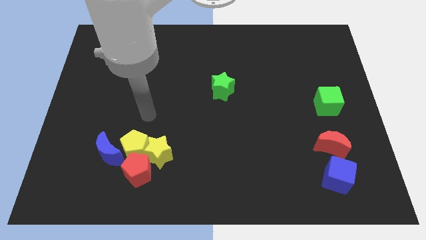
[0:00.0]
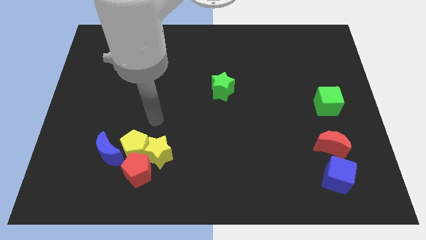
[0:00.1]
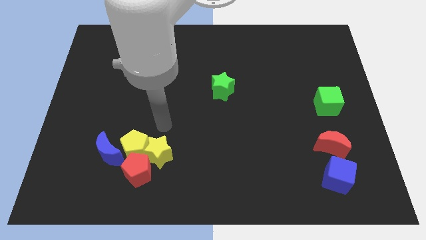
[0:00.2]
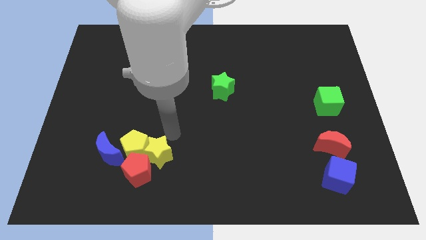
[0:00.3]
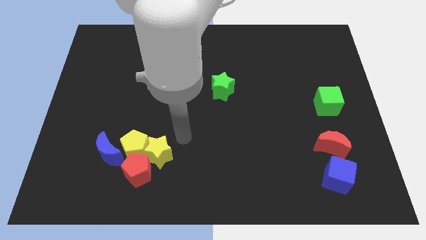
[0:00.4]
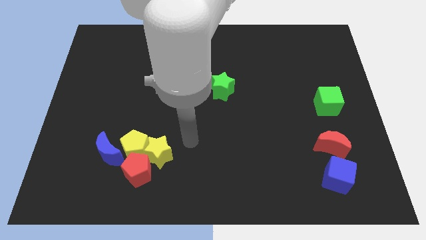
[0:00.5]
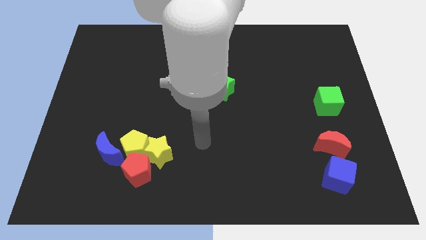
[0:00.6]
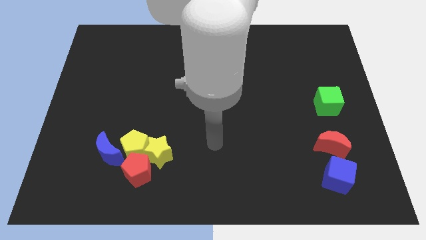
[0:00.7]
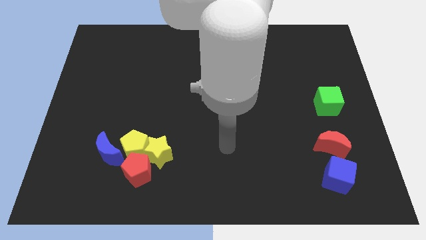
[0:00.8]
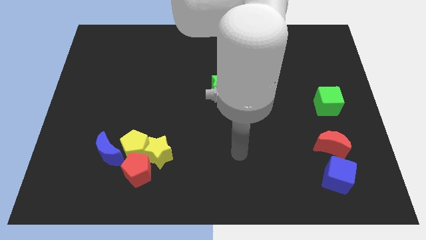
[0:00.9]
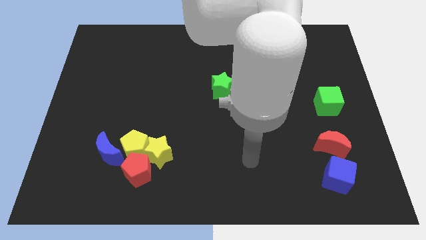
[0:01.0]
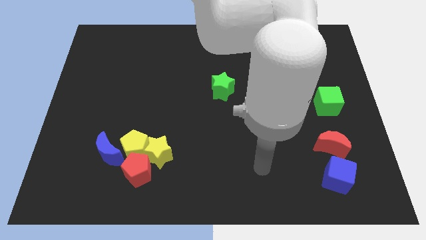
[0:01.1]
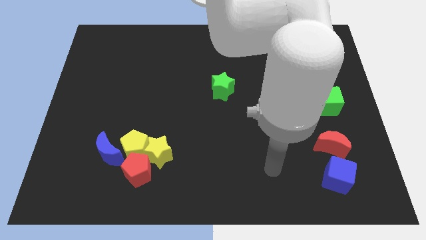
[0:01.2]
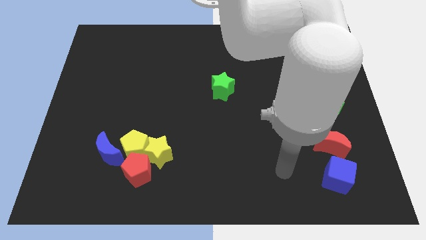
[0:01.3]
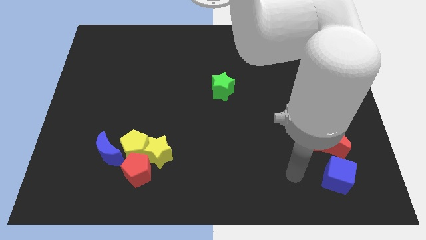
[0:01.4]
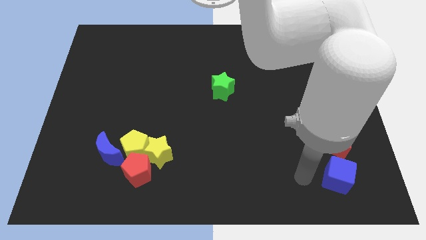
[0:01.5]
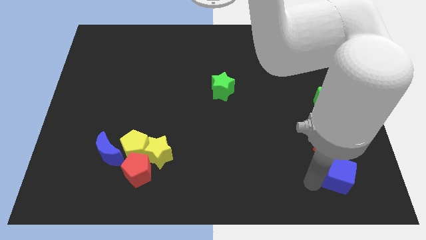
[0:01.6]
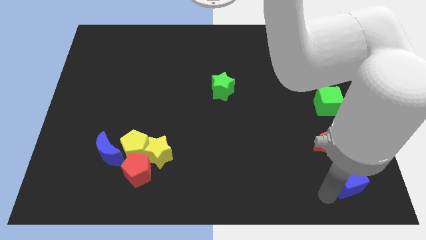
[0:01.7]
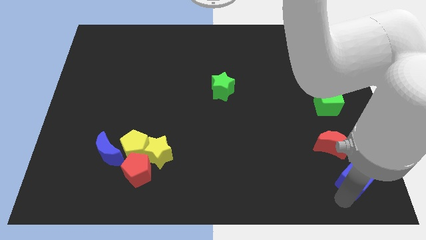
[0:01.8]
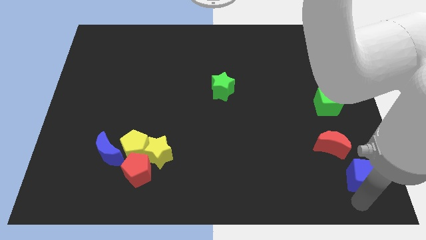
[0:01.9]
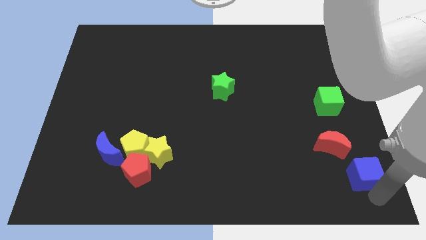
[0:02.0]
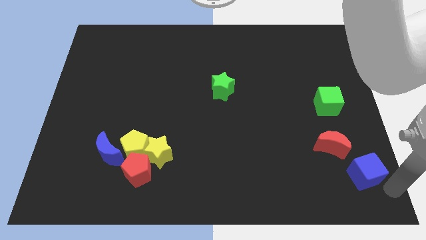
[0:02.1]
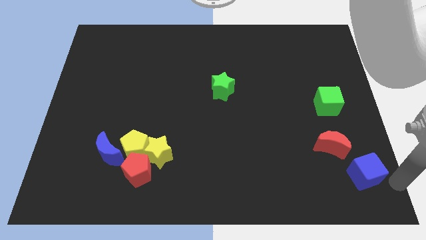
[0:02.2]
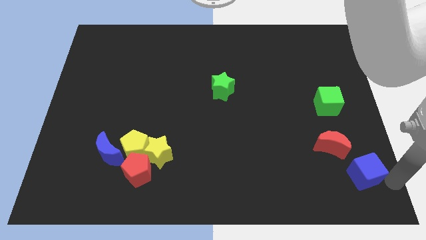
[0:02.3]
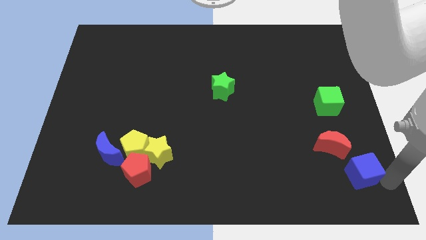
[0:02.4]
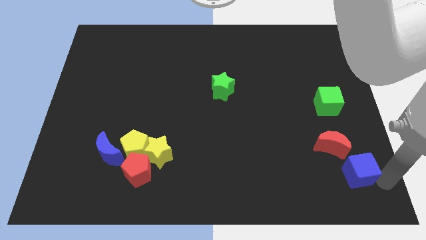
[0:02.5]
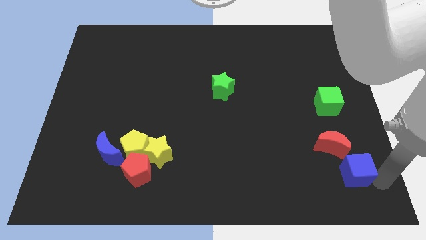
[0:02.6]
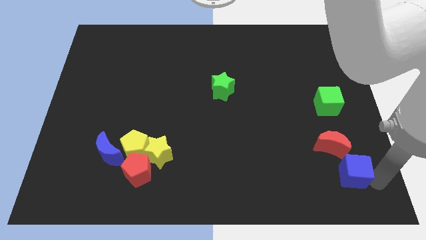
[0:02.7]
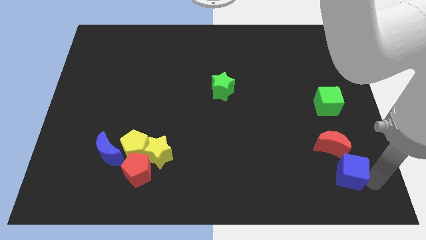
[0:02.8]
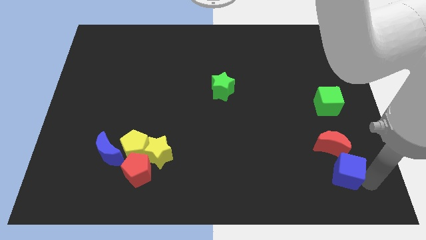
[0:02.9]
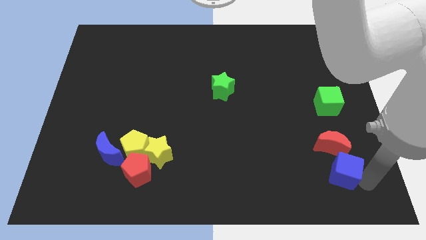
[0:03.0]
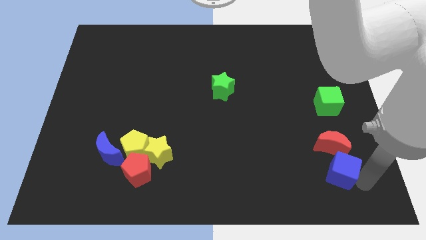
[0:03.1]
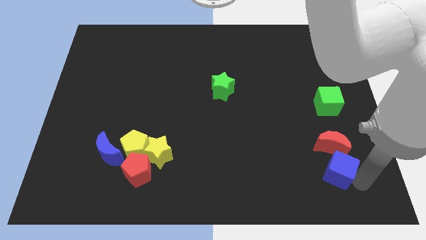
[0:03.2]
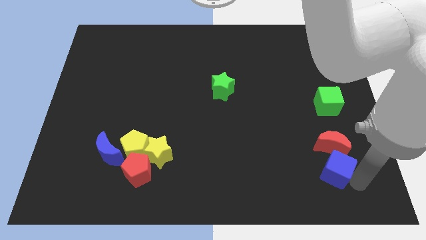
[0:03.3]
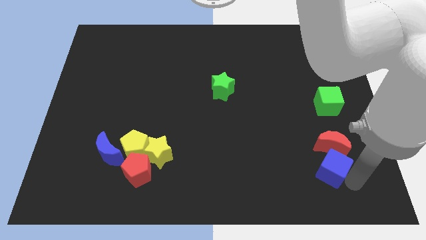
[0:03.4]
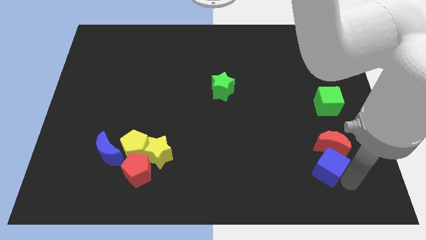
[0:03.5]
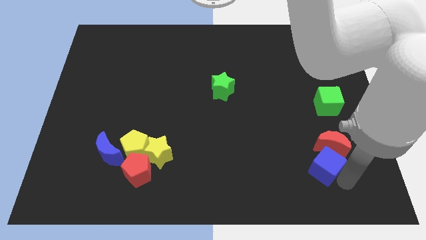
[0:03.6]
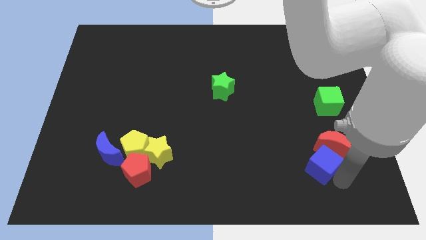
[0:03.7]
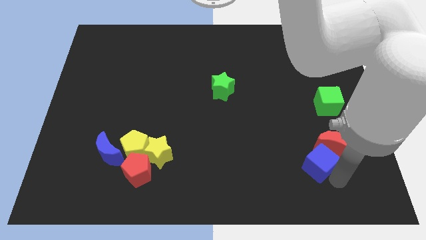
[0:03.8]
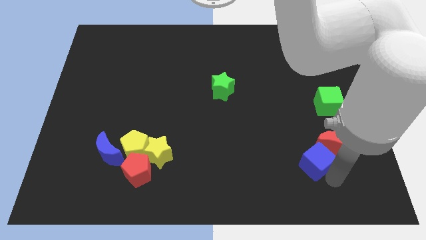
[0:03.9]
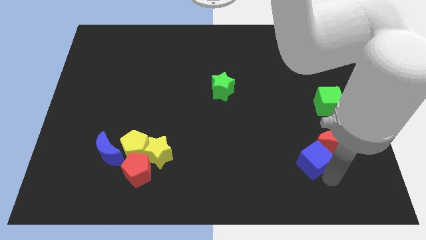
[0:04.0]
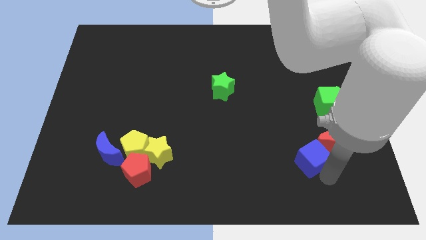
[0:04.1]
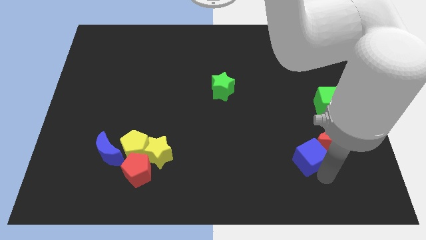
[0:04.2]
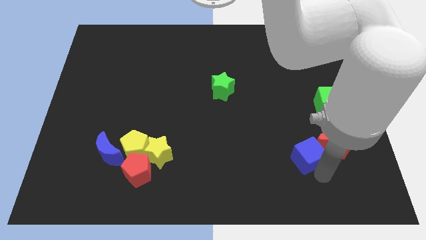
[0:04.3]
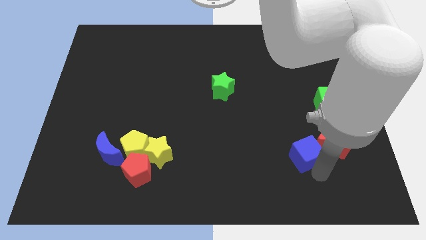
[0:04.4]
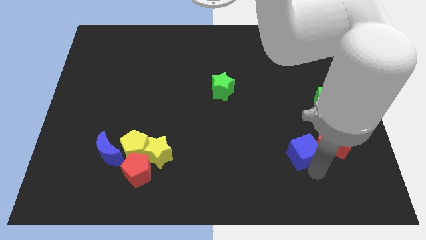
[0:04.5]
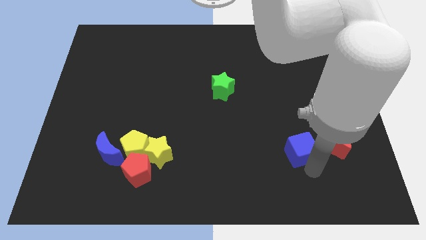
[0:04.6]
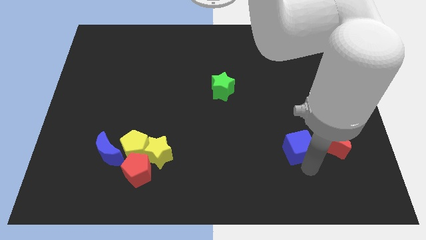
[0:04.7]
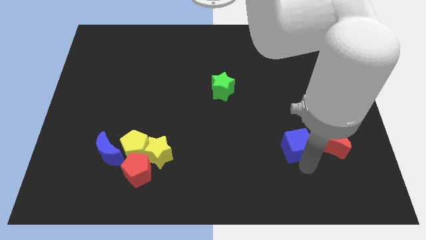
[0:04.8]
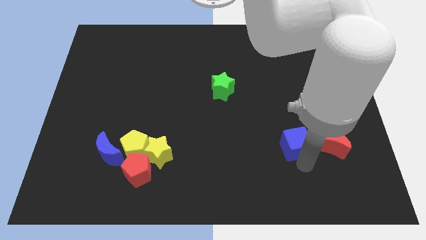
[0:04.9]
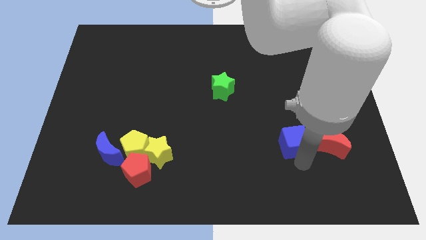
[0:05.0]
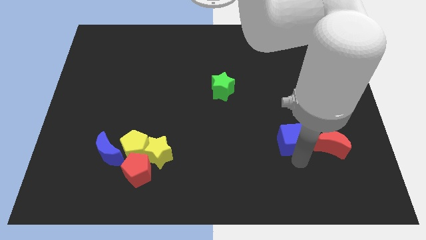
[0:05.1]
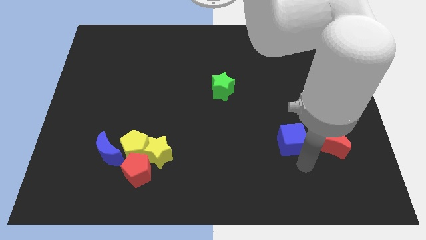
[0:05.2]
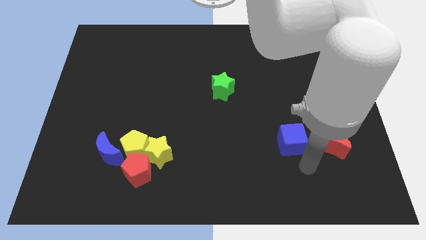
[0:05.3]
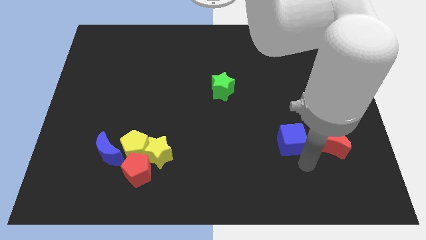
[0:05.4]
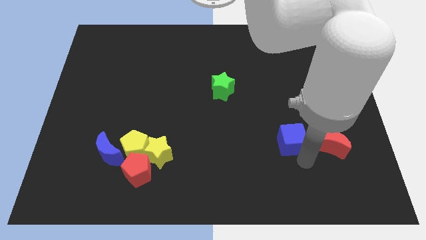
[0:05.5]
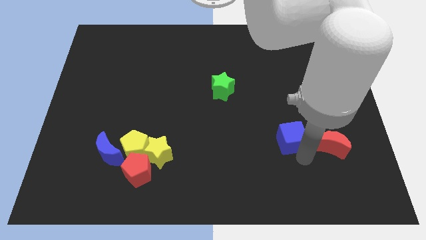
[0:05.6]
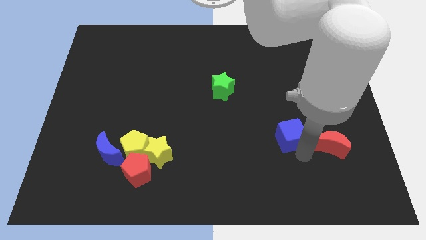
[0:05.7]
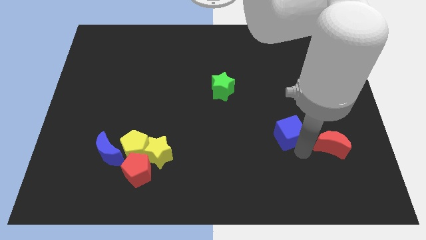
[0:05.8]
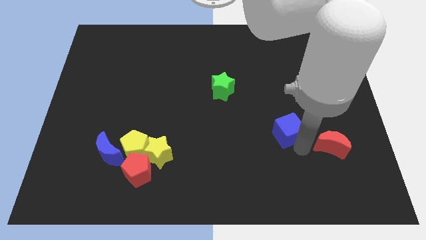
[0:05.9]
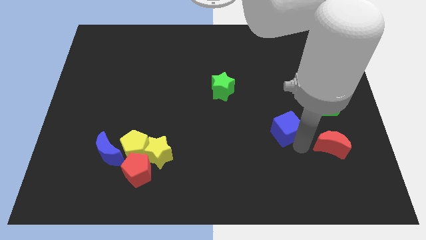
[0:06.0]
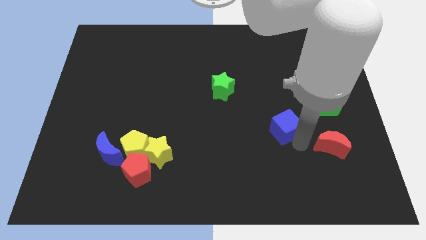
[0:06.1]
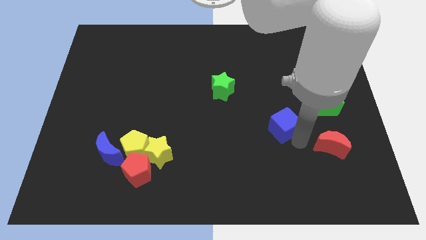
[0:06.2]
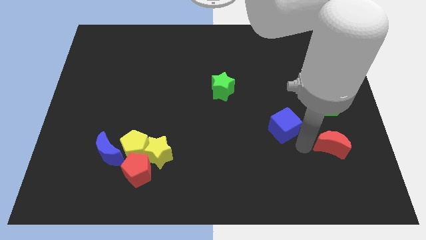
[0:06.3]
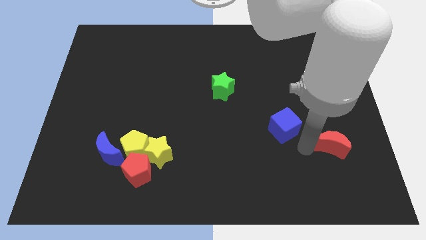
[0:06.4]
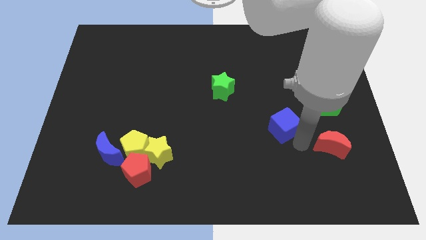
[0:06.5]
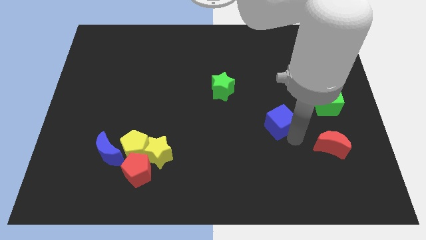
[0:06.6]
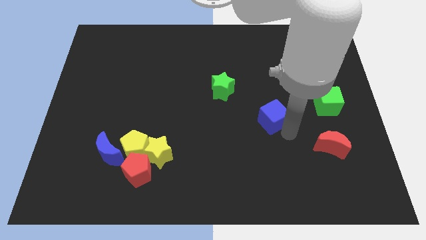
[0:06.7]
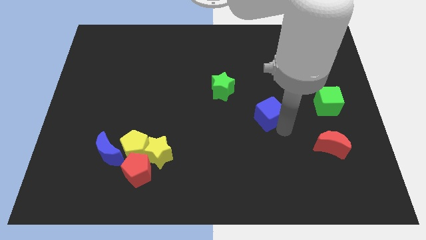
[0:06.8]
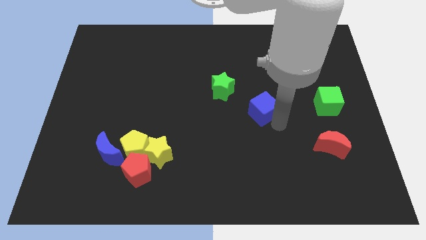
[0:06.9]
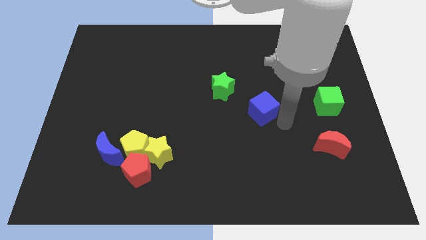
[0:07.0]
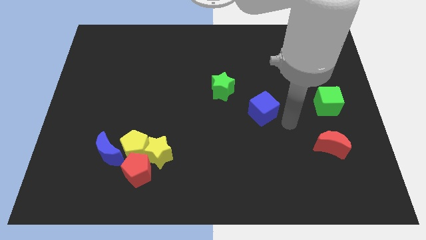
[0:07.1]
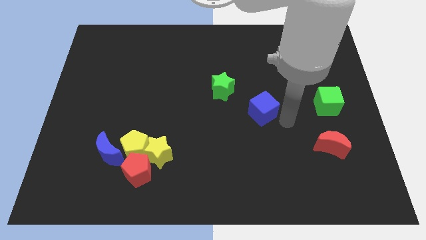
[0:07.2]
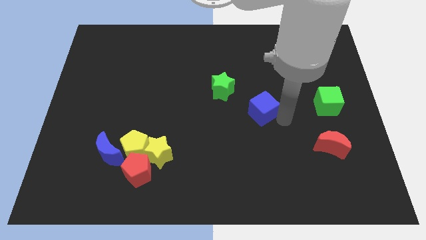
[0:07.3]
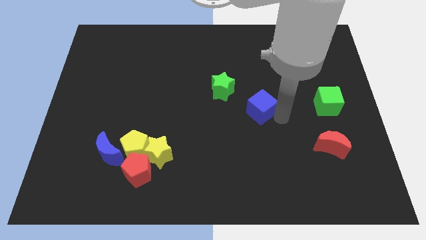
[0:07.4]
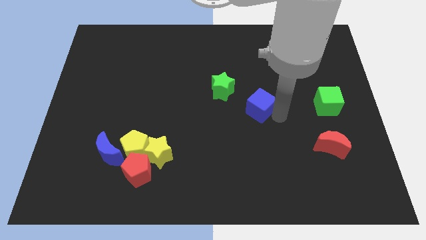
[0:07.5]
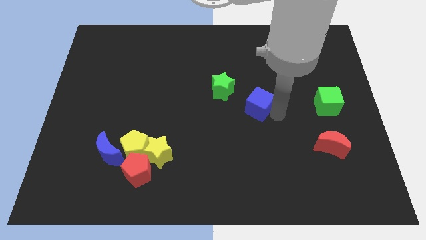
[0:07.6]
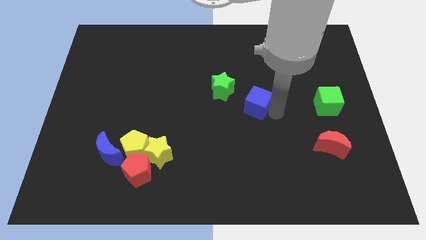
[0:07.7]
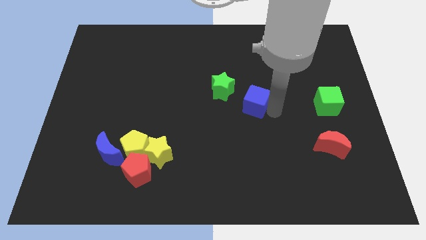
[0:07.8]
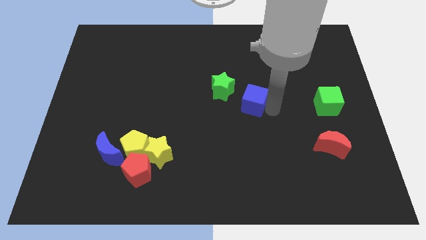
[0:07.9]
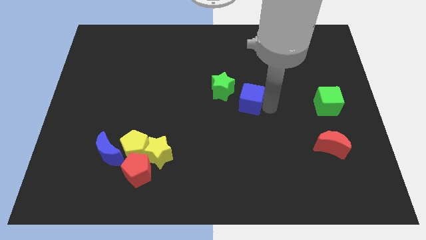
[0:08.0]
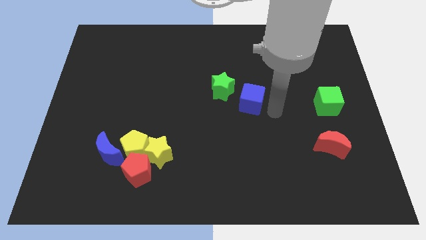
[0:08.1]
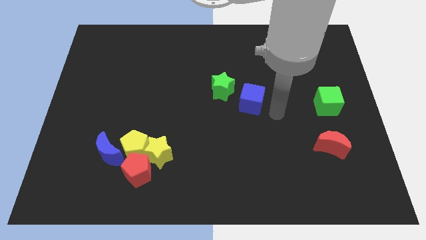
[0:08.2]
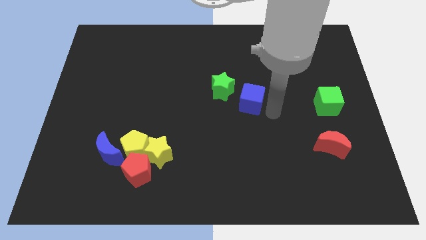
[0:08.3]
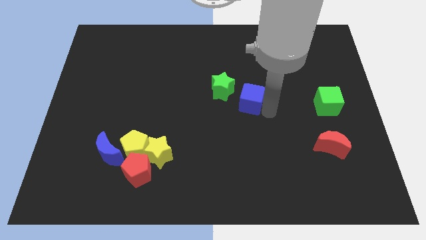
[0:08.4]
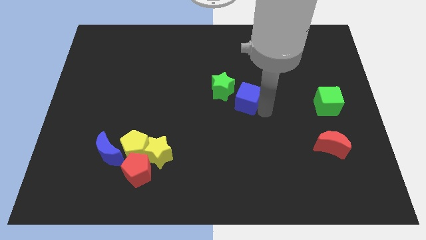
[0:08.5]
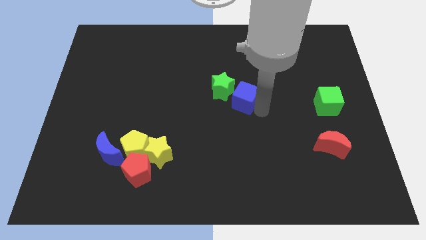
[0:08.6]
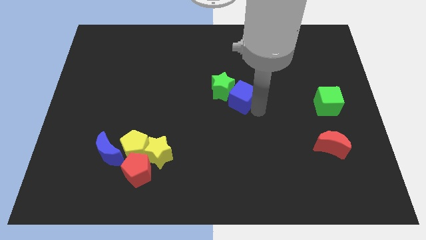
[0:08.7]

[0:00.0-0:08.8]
put the blue cube next to the green star
